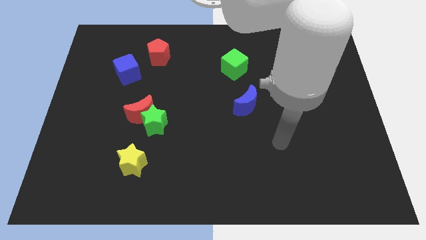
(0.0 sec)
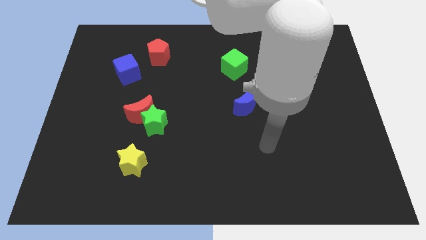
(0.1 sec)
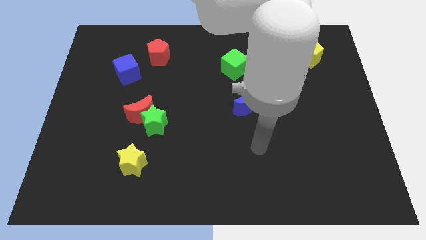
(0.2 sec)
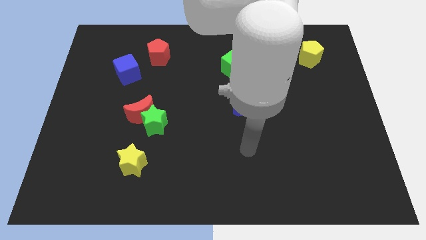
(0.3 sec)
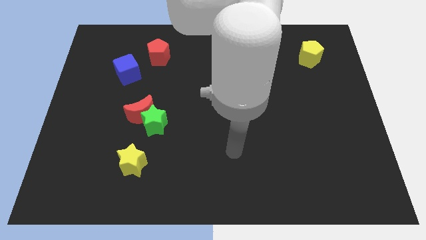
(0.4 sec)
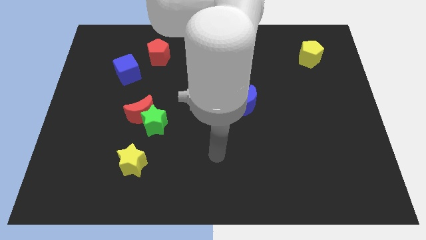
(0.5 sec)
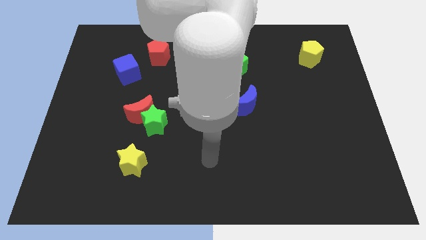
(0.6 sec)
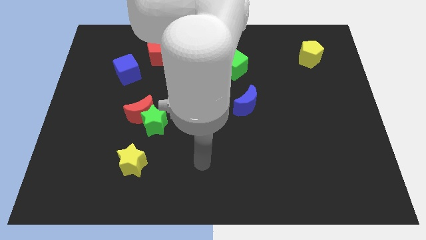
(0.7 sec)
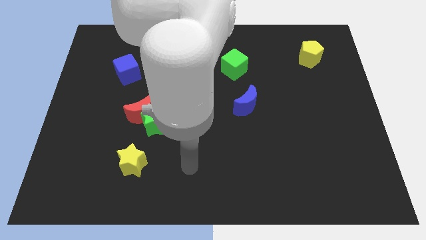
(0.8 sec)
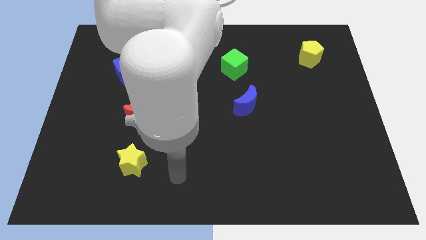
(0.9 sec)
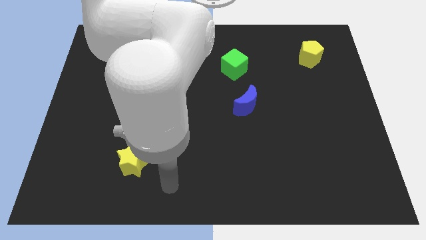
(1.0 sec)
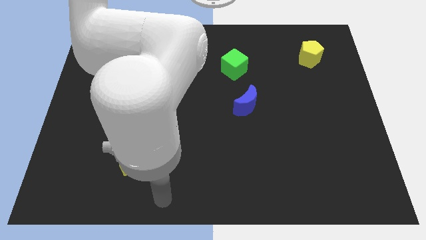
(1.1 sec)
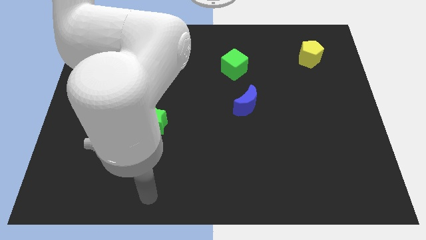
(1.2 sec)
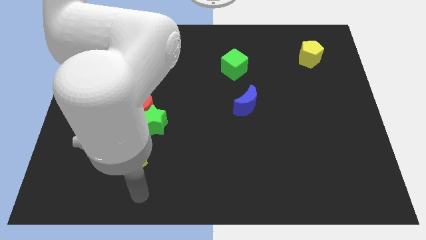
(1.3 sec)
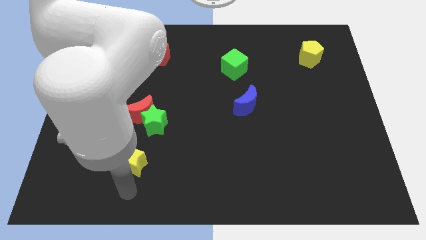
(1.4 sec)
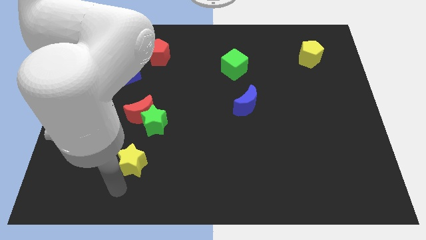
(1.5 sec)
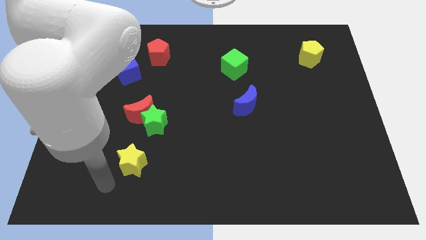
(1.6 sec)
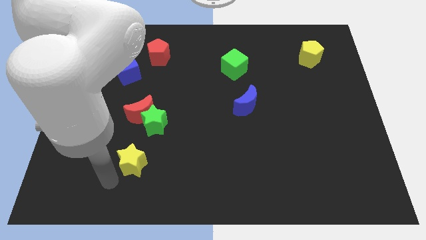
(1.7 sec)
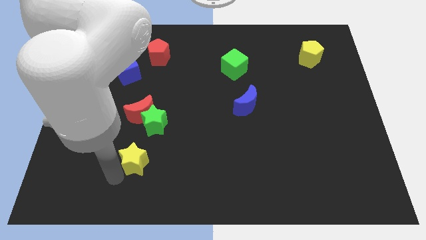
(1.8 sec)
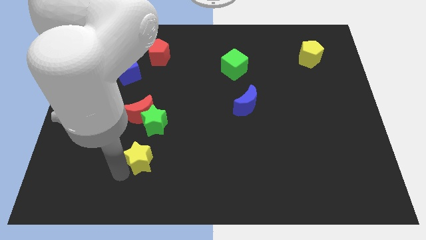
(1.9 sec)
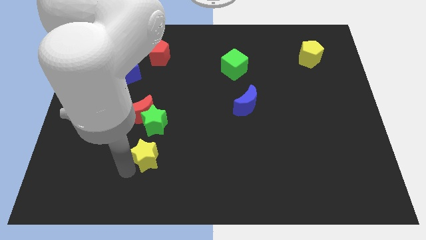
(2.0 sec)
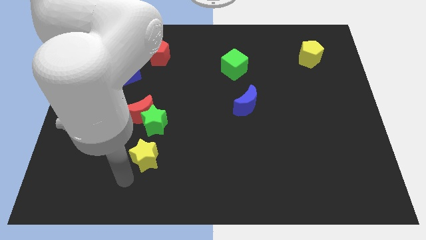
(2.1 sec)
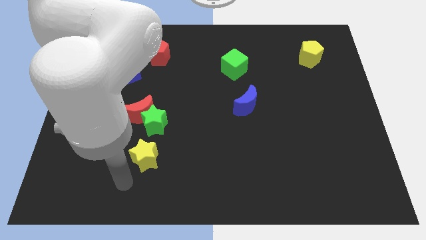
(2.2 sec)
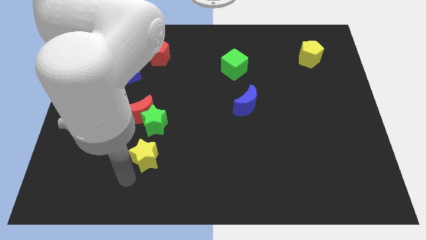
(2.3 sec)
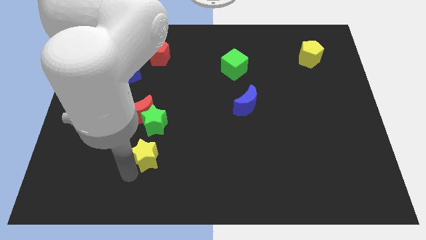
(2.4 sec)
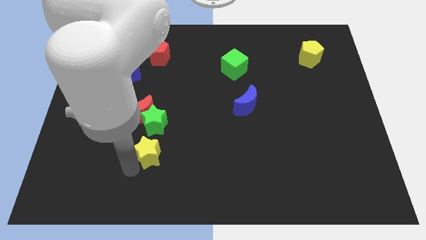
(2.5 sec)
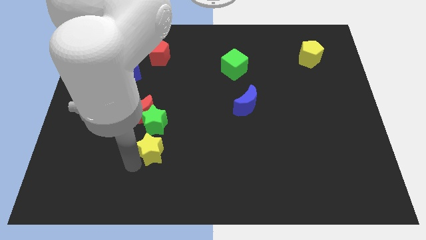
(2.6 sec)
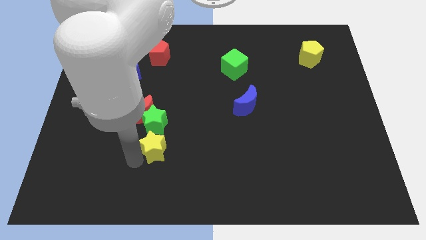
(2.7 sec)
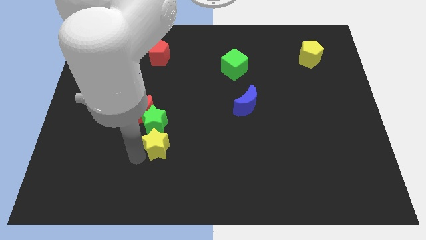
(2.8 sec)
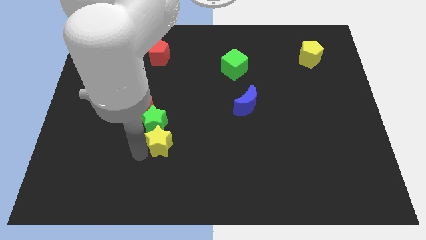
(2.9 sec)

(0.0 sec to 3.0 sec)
move the yellow star up and right diagonally a little

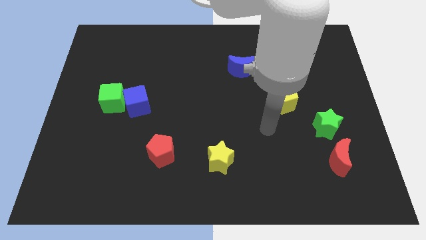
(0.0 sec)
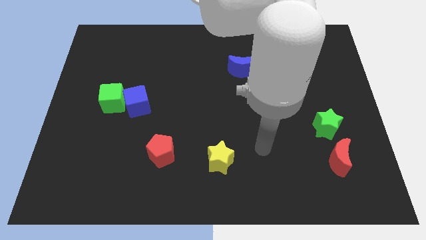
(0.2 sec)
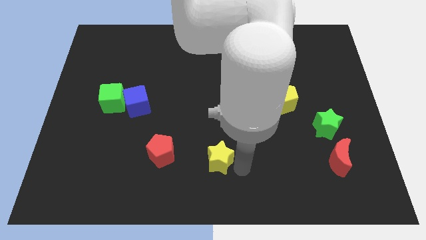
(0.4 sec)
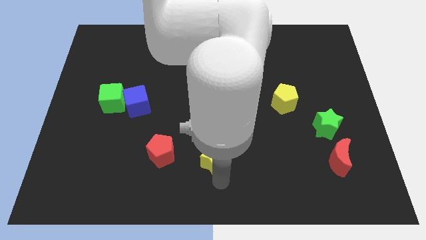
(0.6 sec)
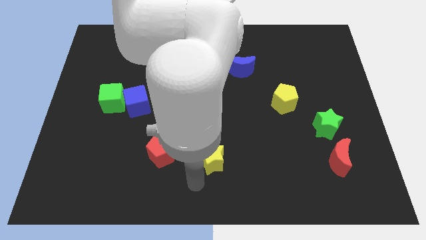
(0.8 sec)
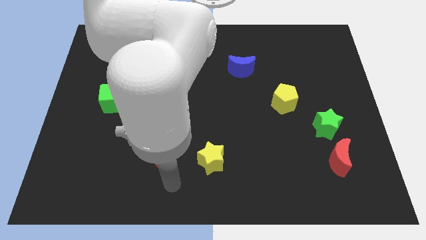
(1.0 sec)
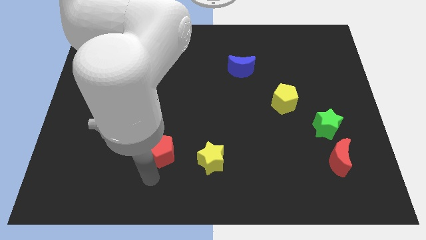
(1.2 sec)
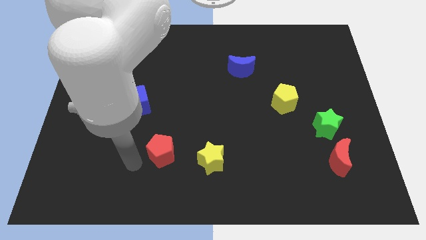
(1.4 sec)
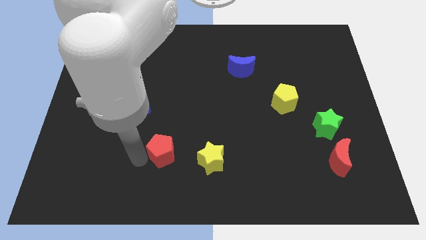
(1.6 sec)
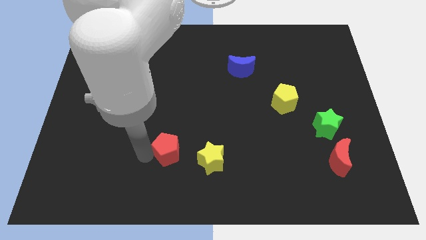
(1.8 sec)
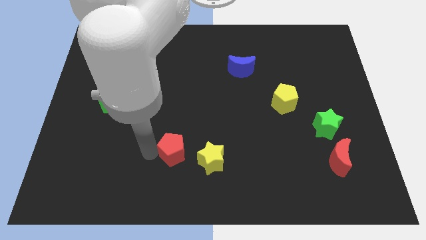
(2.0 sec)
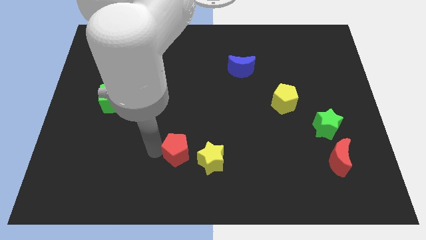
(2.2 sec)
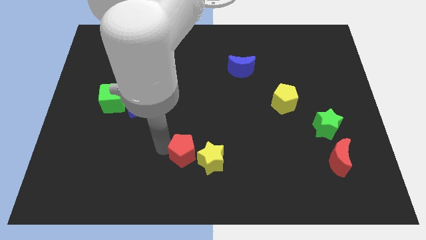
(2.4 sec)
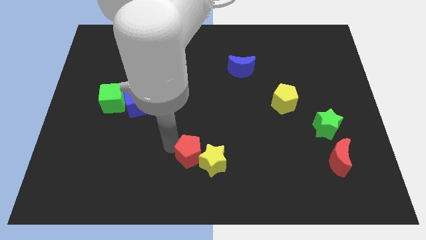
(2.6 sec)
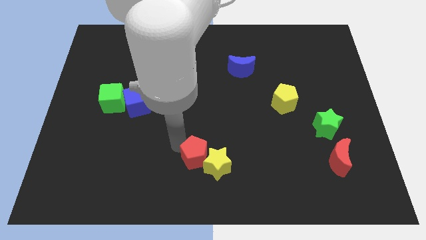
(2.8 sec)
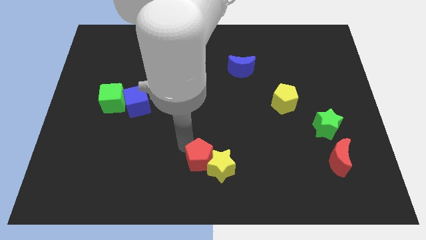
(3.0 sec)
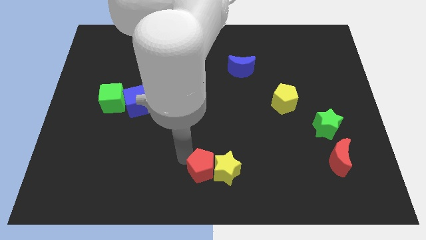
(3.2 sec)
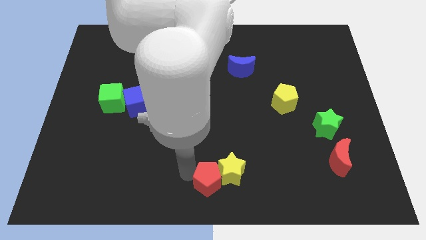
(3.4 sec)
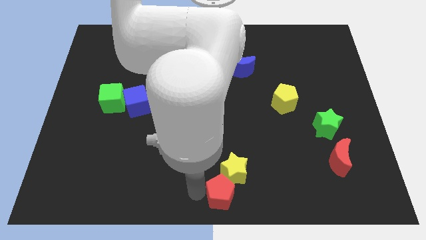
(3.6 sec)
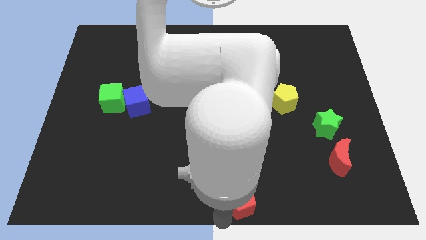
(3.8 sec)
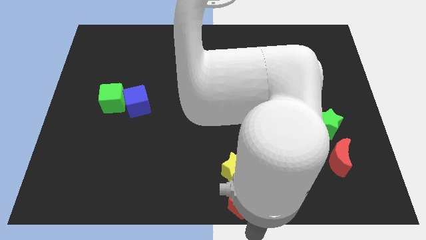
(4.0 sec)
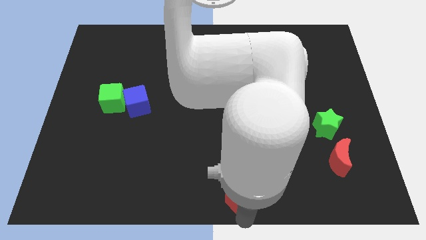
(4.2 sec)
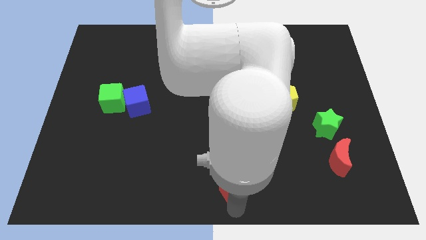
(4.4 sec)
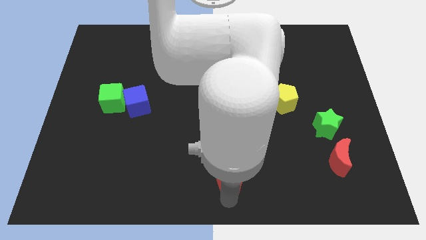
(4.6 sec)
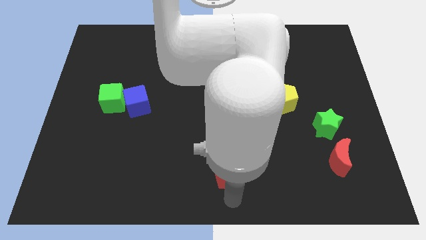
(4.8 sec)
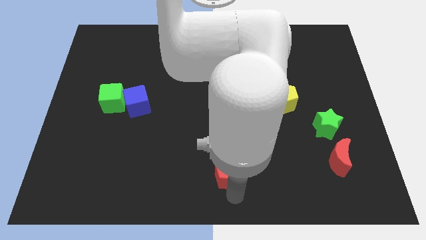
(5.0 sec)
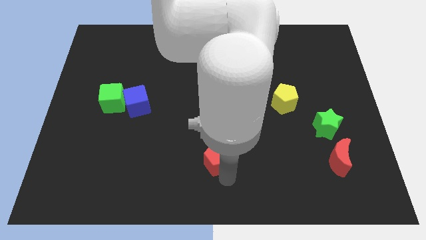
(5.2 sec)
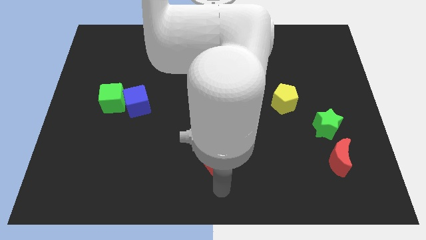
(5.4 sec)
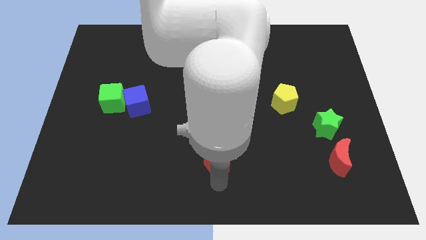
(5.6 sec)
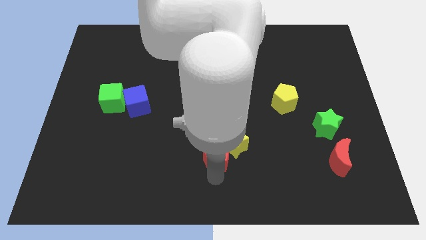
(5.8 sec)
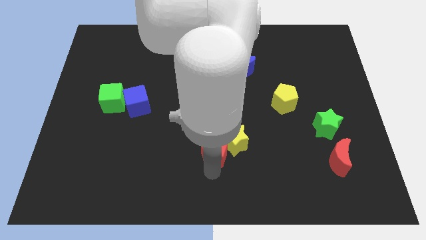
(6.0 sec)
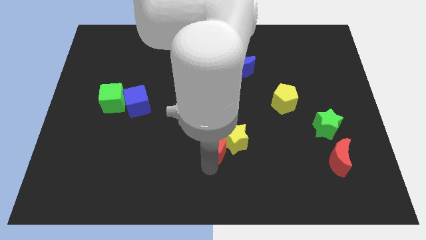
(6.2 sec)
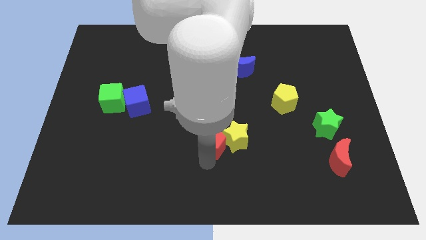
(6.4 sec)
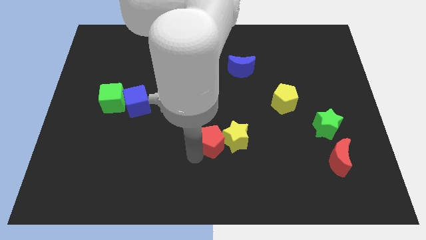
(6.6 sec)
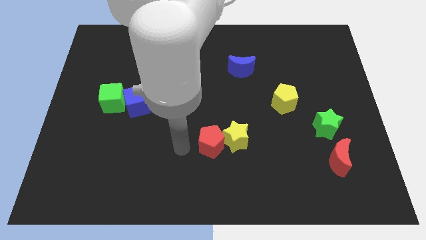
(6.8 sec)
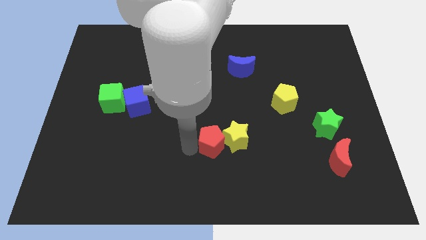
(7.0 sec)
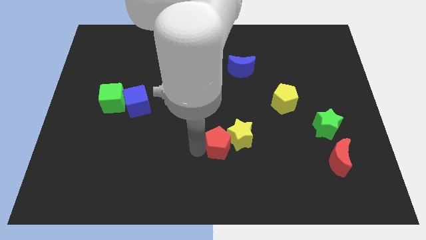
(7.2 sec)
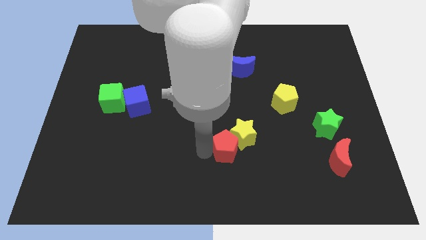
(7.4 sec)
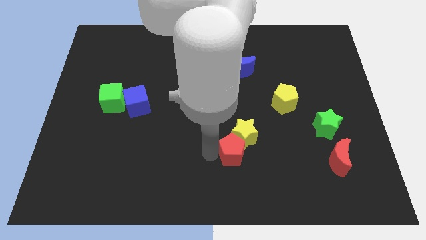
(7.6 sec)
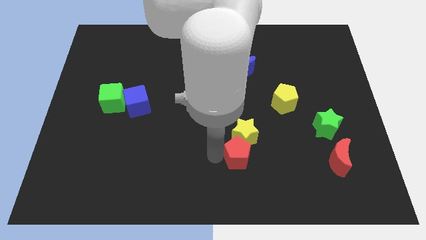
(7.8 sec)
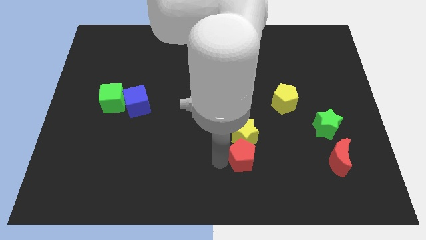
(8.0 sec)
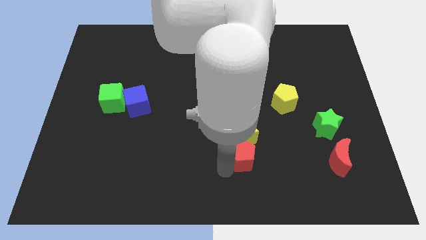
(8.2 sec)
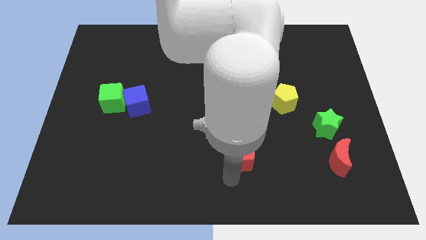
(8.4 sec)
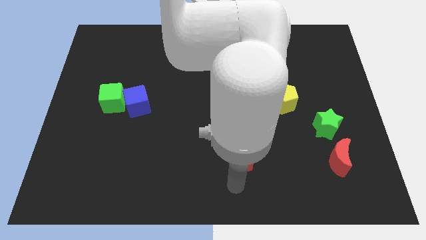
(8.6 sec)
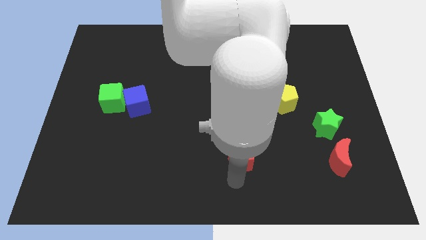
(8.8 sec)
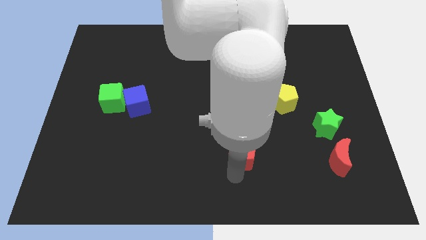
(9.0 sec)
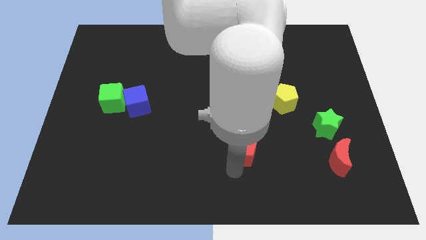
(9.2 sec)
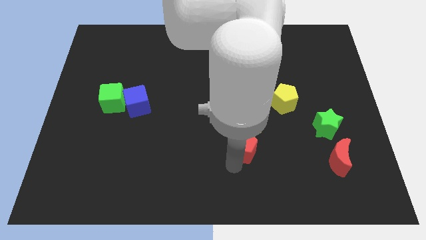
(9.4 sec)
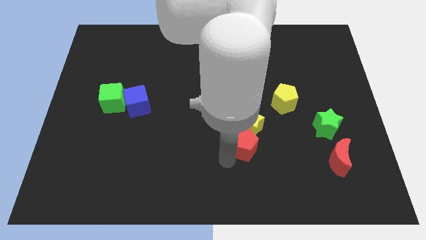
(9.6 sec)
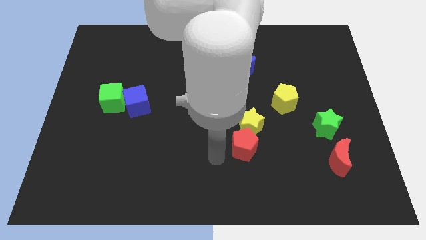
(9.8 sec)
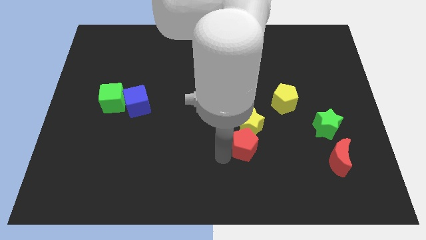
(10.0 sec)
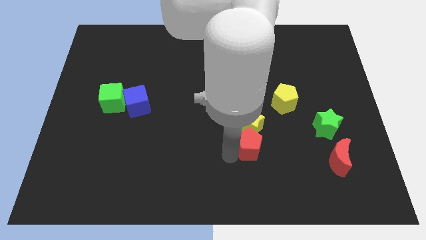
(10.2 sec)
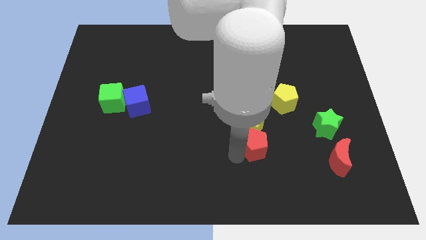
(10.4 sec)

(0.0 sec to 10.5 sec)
move the red pentagon right
